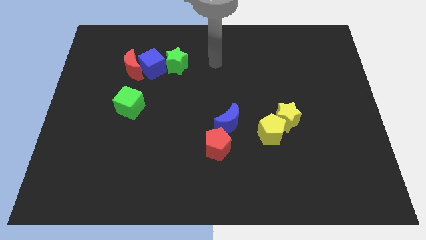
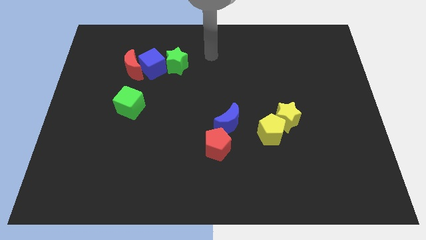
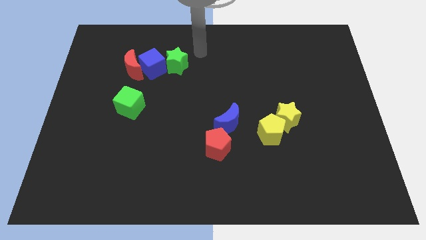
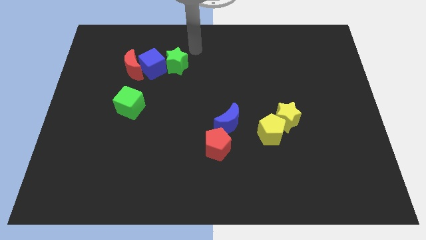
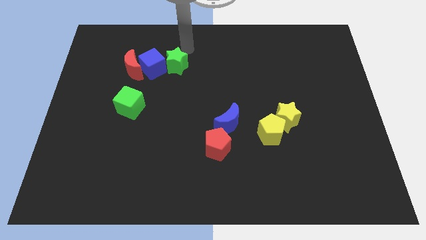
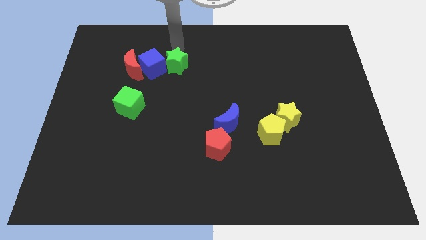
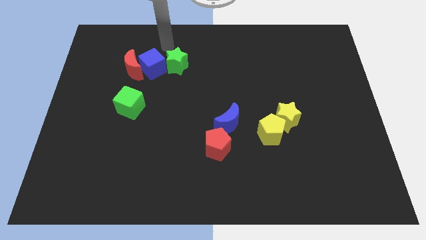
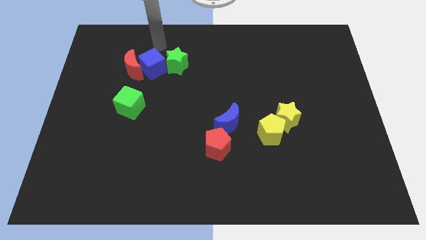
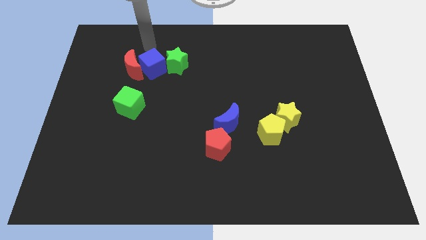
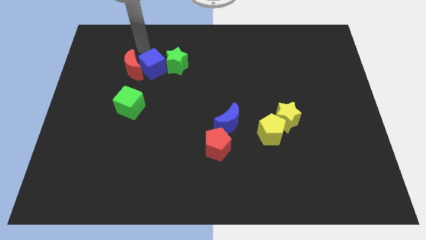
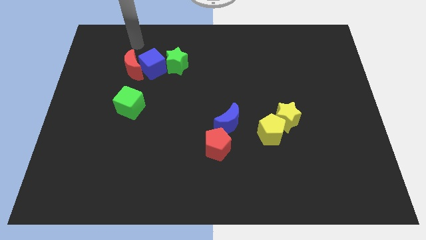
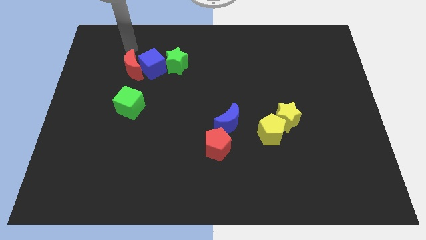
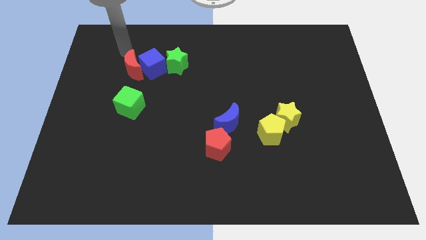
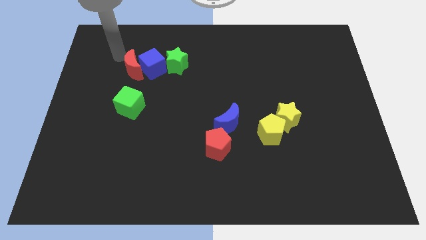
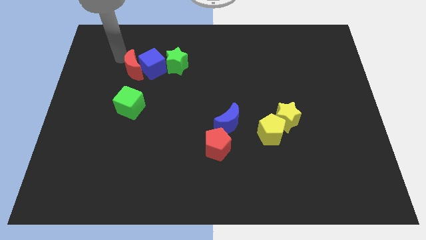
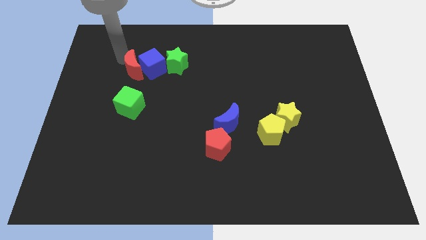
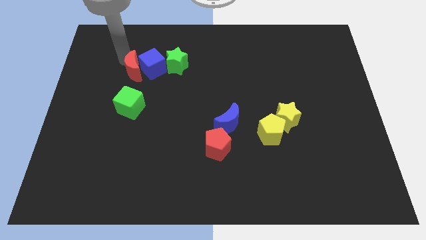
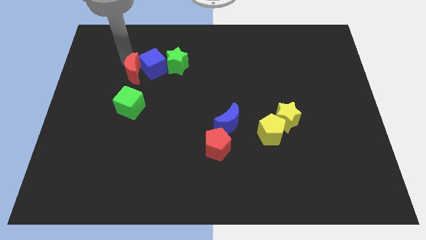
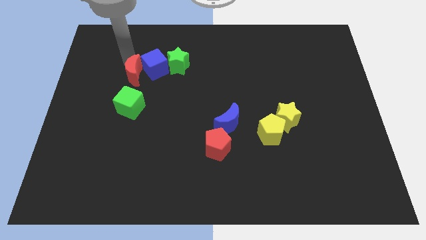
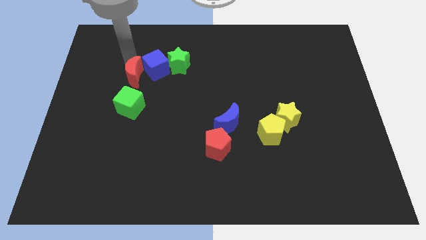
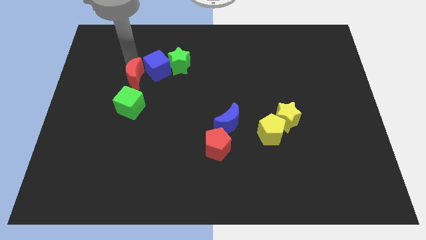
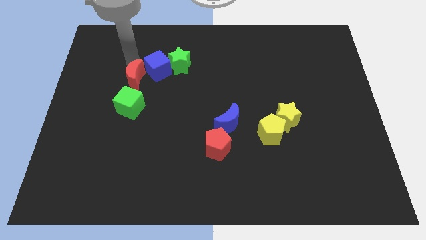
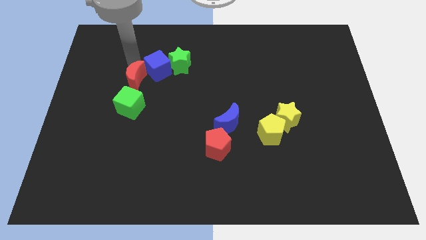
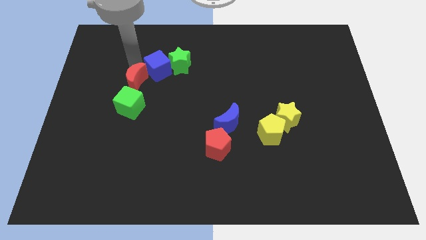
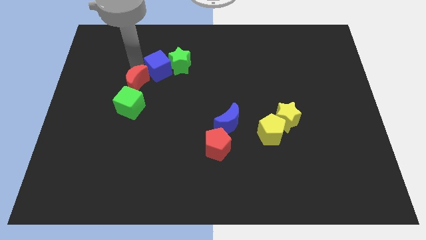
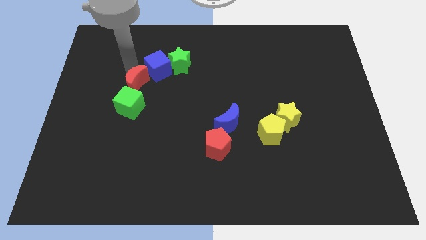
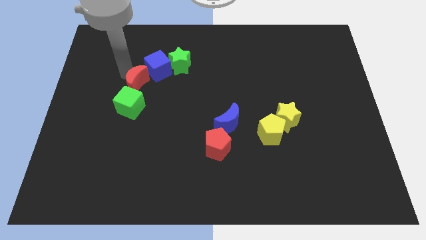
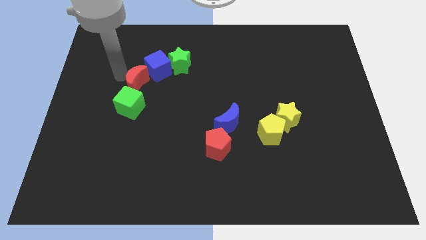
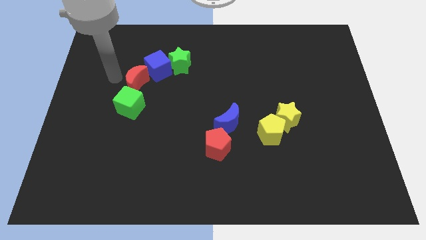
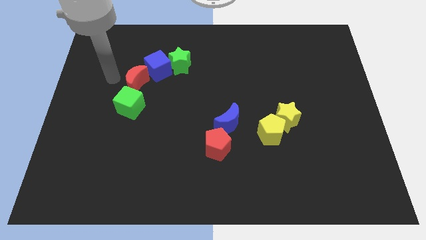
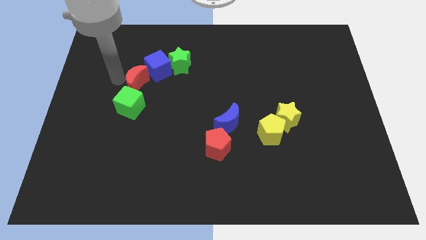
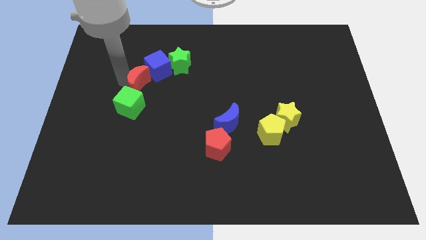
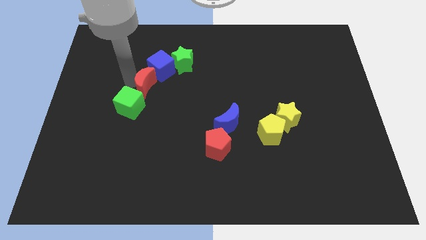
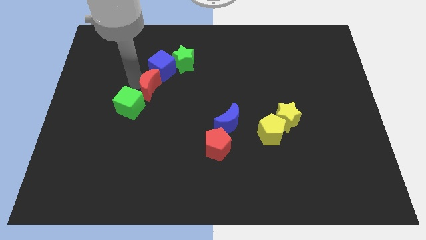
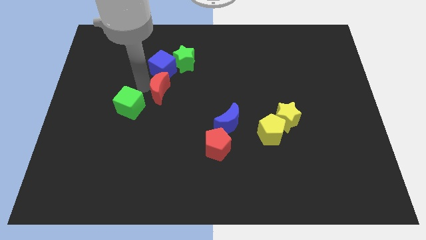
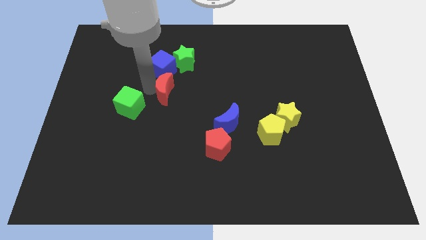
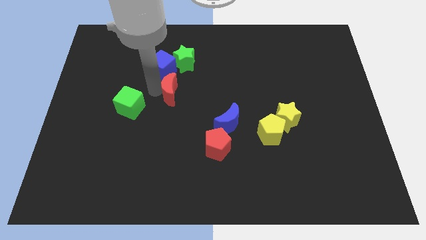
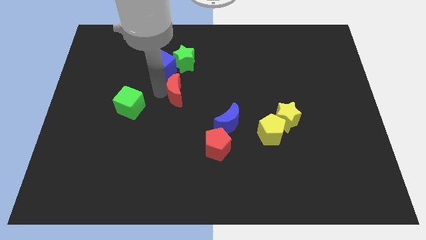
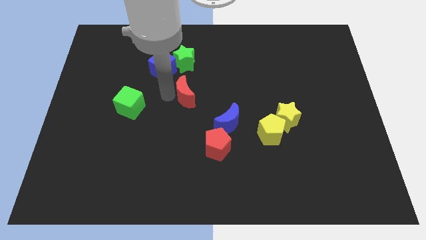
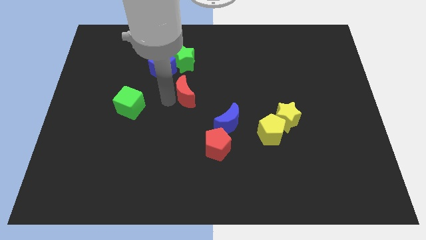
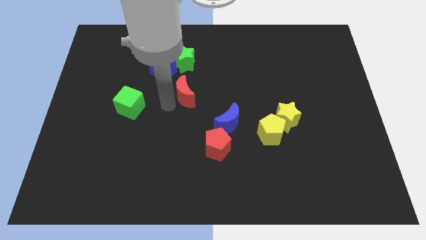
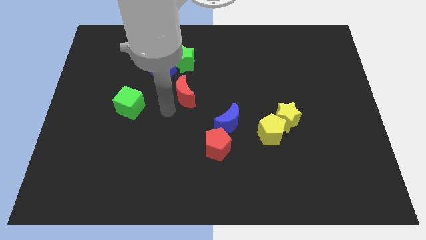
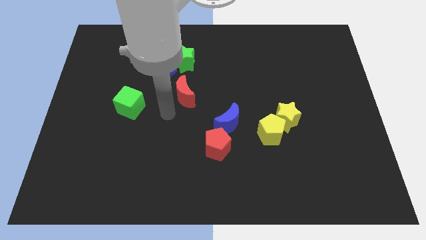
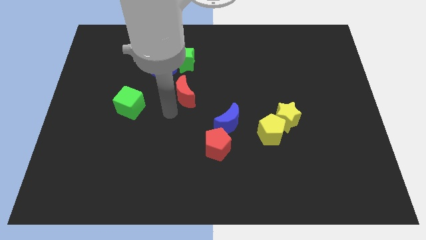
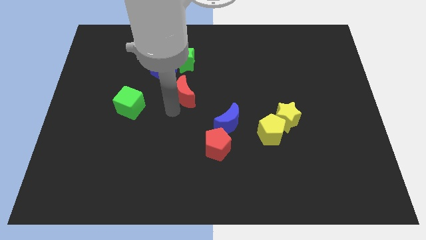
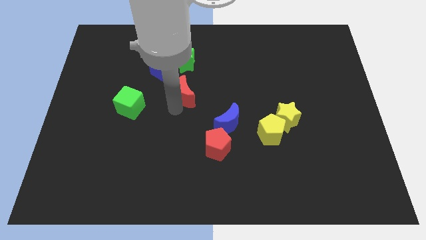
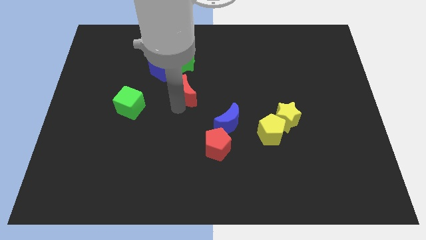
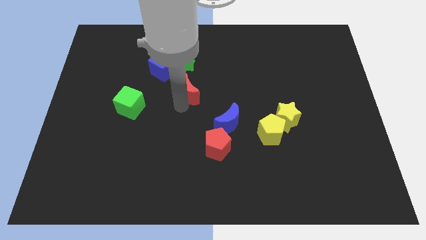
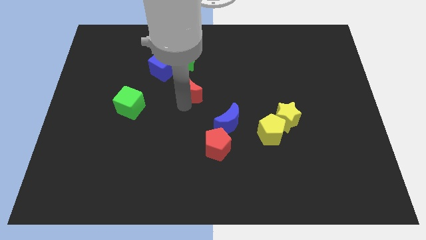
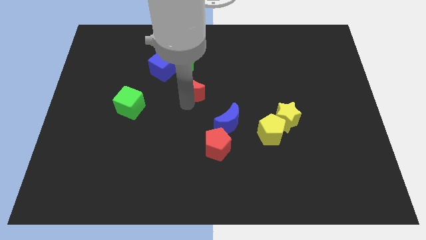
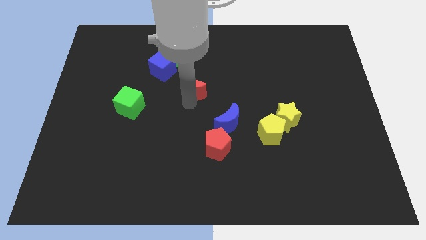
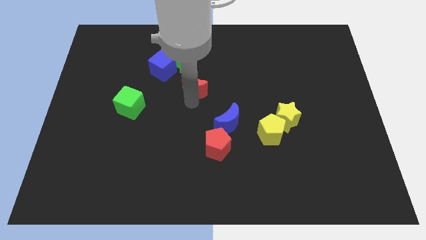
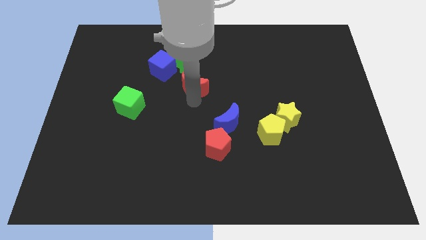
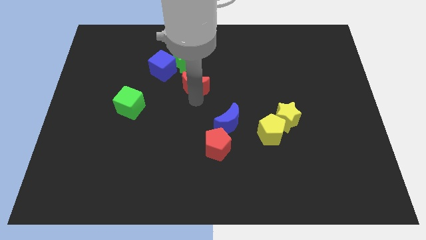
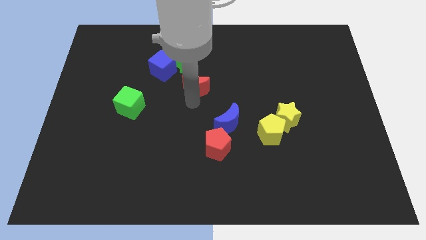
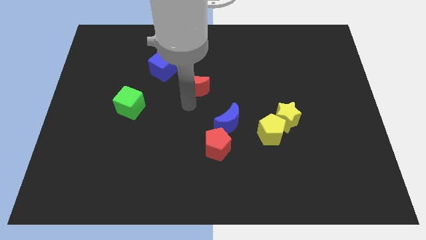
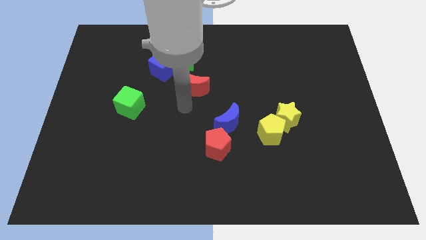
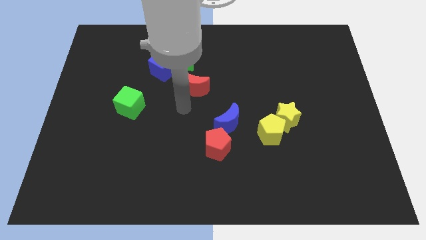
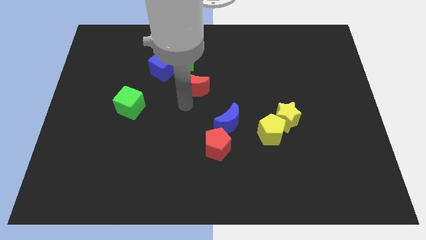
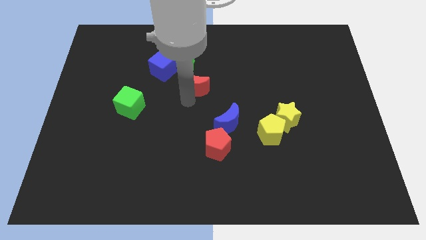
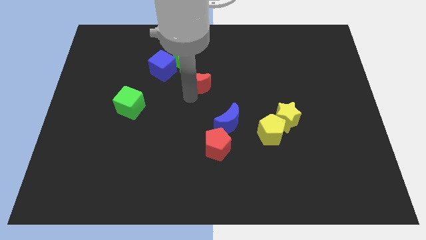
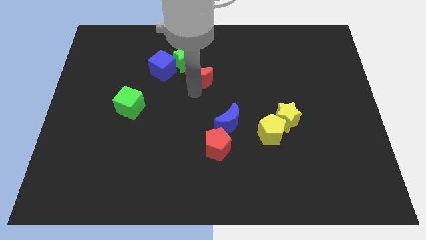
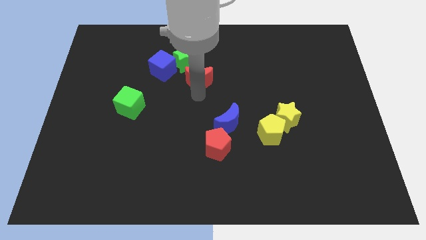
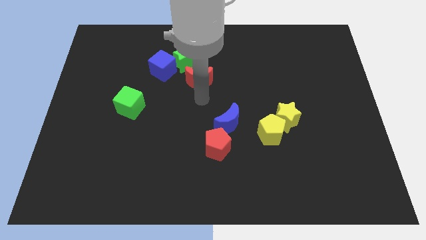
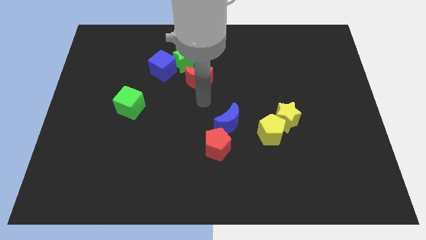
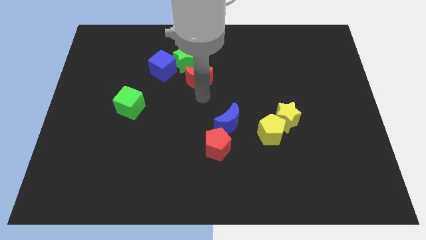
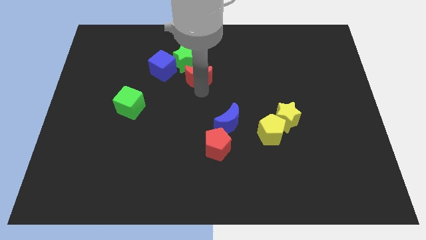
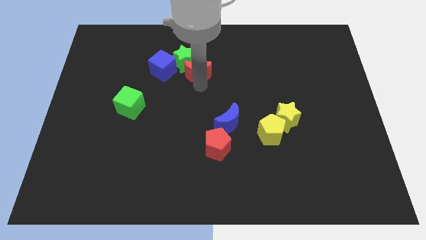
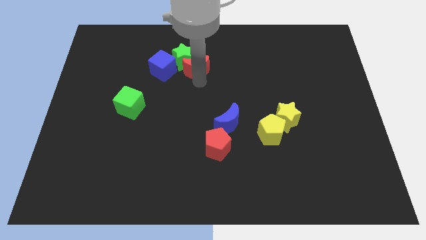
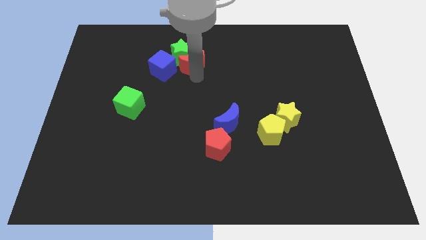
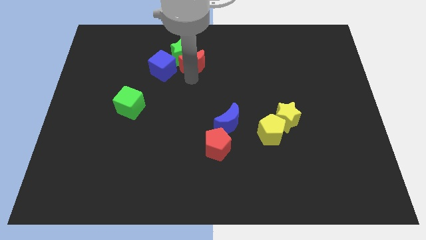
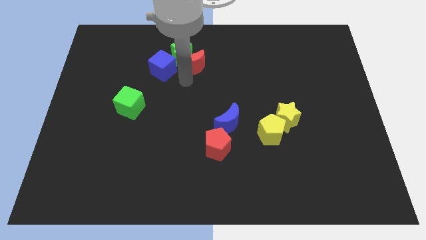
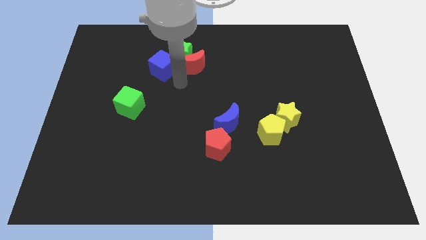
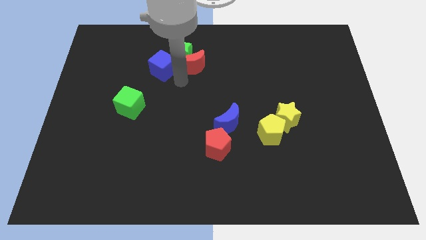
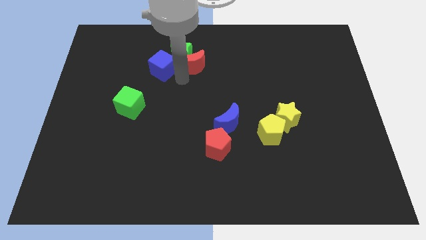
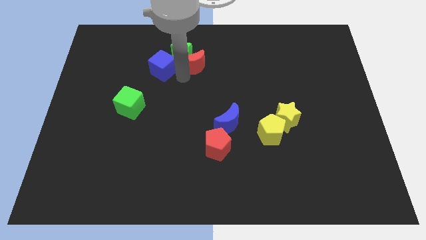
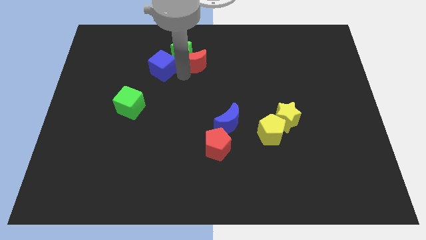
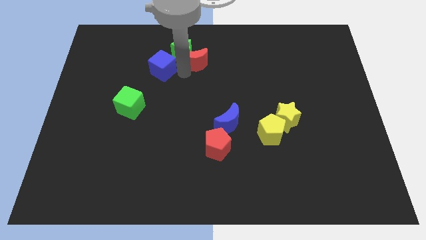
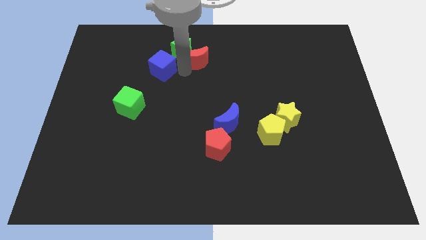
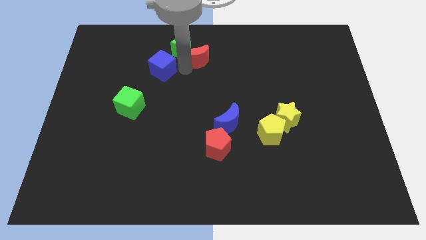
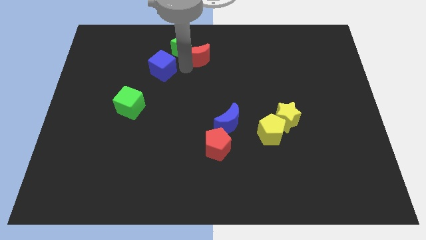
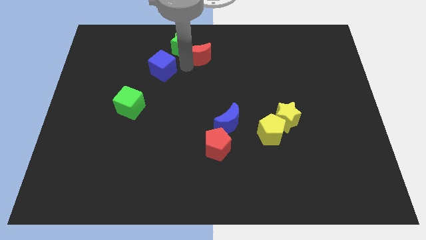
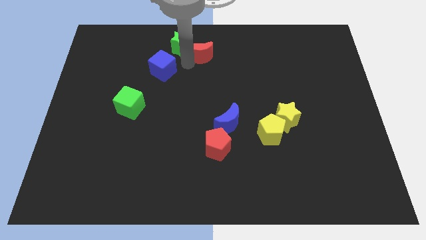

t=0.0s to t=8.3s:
put the red moon to the top side
